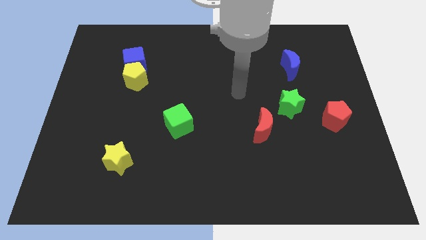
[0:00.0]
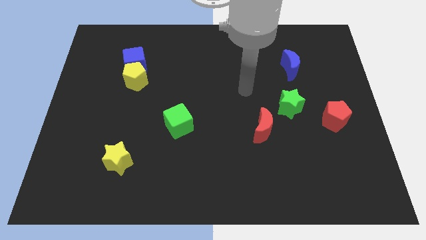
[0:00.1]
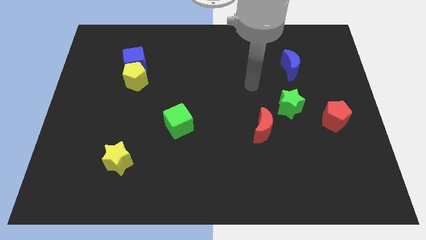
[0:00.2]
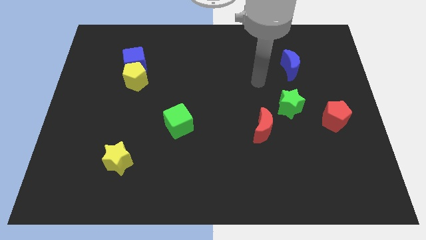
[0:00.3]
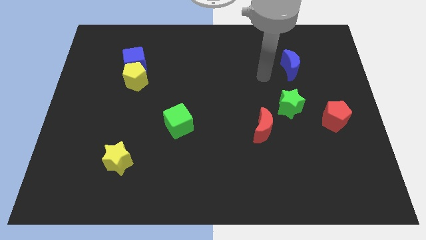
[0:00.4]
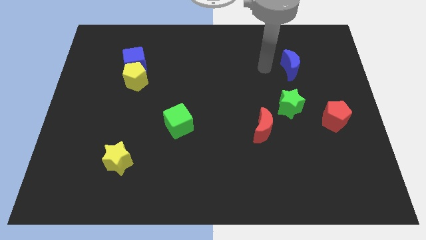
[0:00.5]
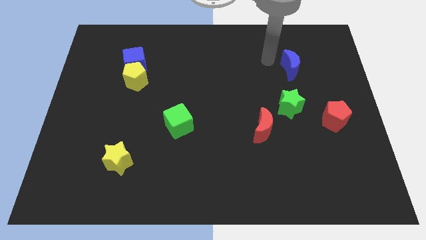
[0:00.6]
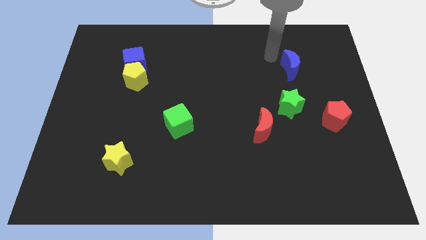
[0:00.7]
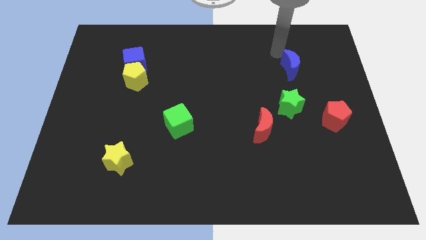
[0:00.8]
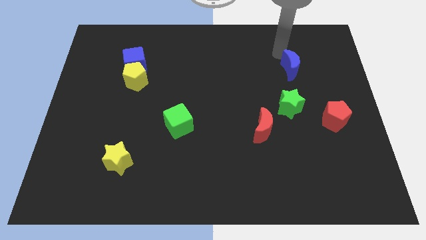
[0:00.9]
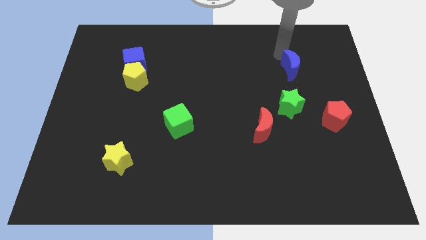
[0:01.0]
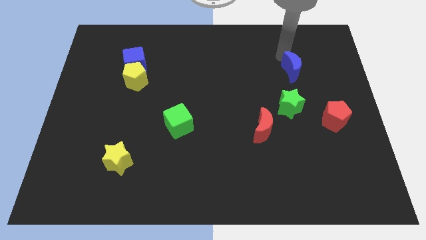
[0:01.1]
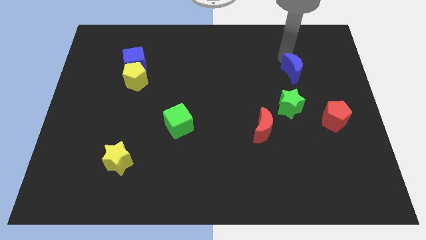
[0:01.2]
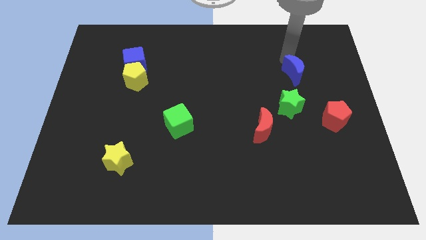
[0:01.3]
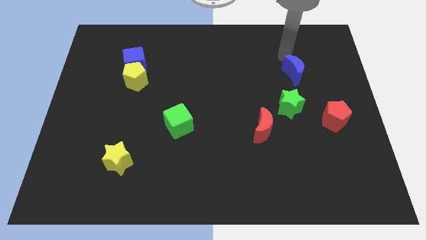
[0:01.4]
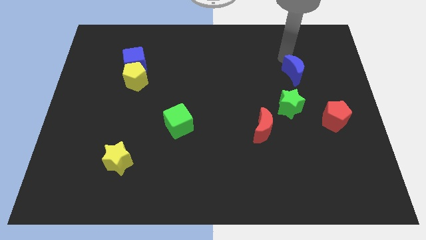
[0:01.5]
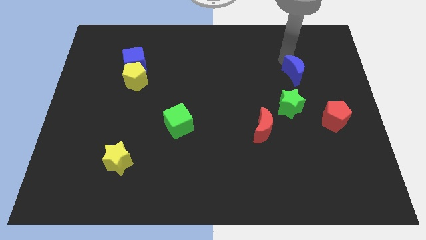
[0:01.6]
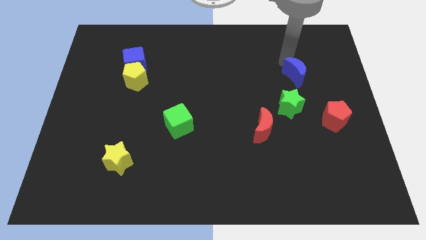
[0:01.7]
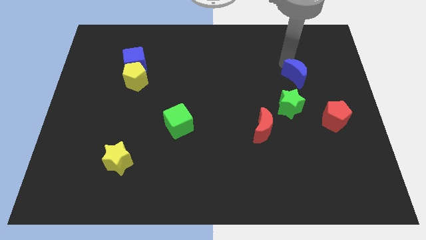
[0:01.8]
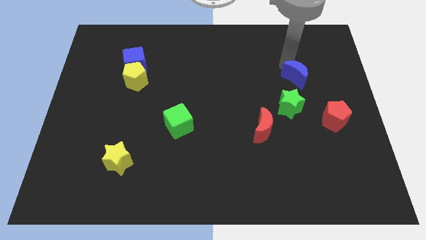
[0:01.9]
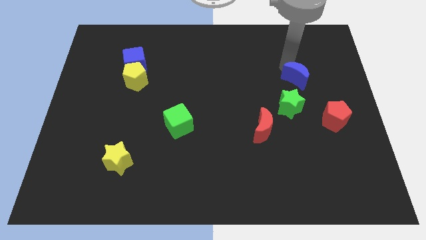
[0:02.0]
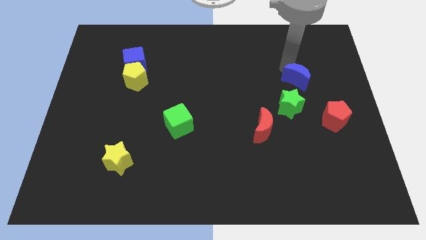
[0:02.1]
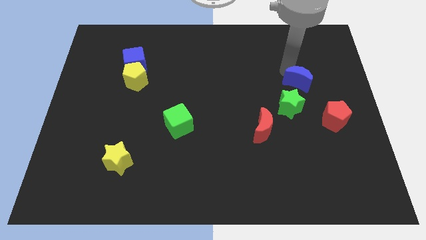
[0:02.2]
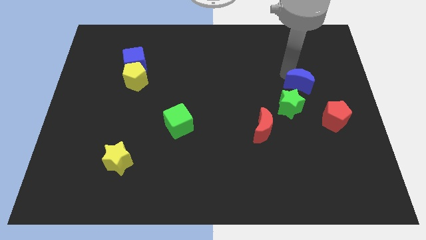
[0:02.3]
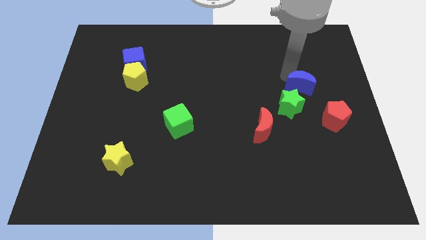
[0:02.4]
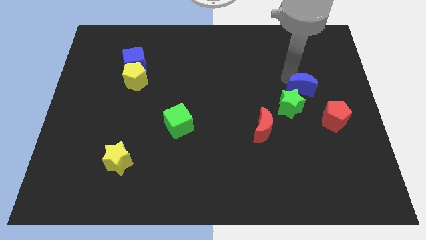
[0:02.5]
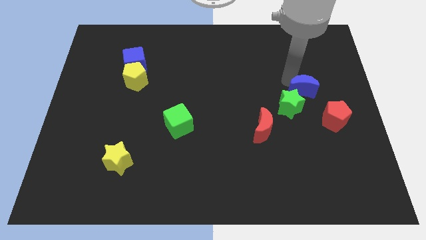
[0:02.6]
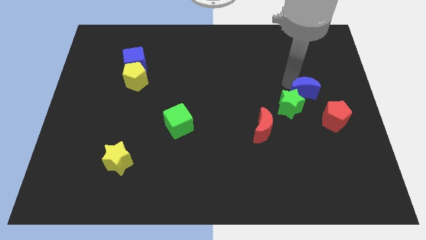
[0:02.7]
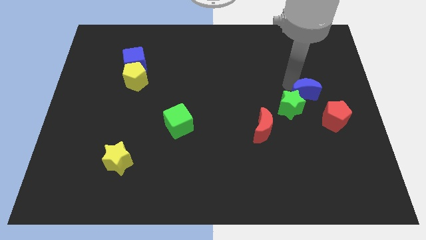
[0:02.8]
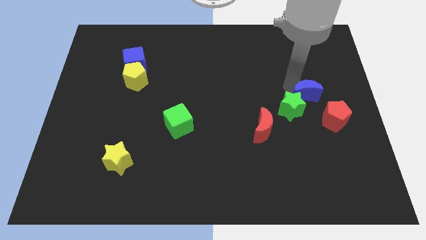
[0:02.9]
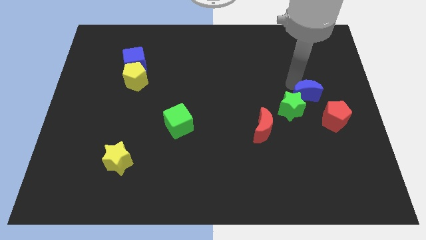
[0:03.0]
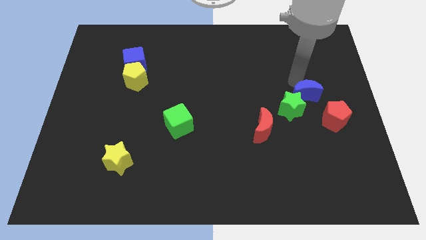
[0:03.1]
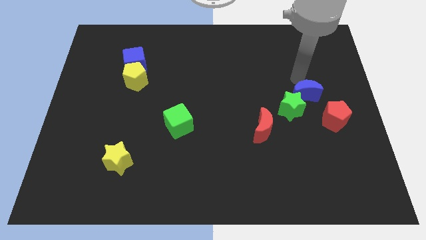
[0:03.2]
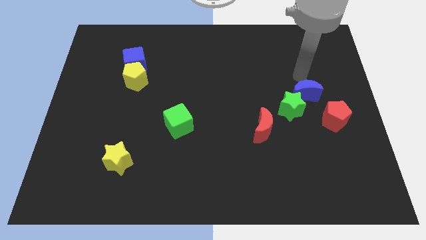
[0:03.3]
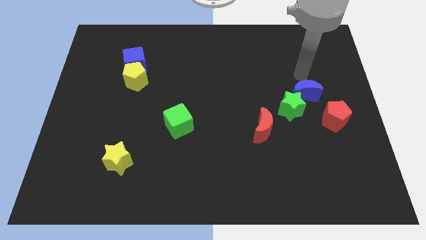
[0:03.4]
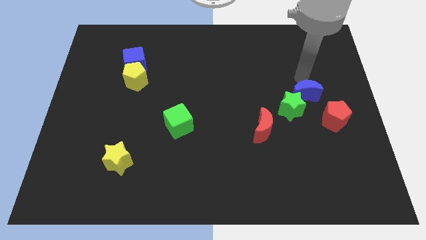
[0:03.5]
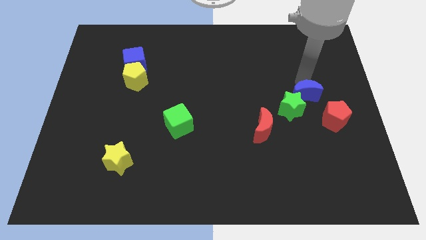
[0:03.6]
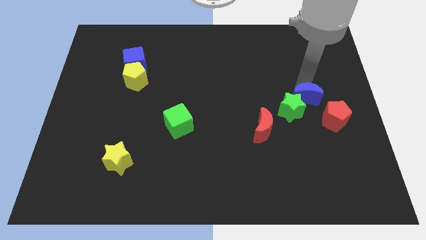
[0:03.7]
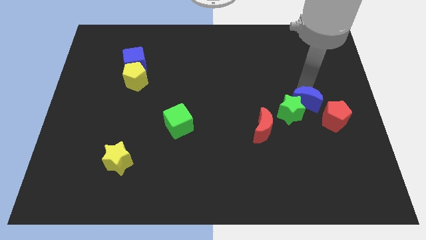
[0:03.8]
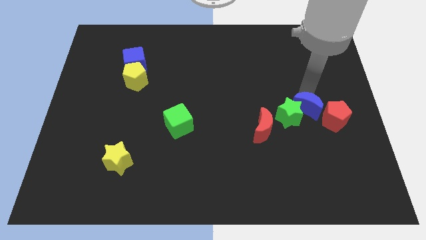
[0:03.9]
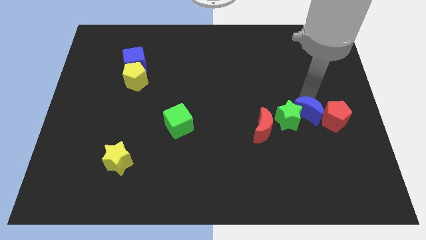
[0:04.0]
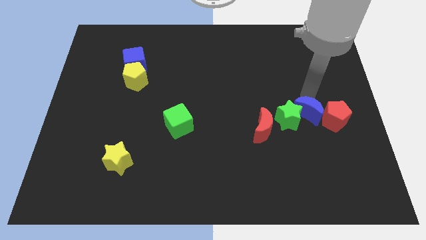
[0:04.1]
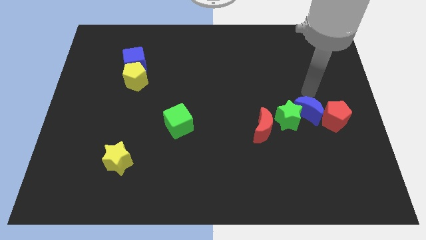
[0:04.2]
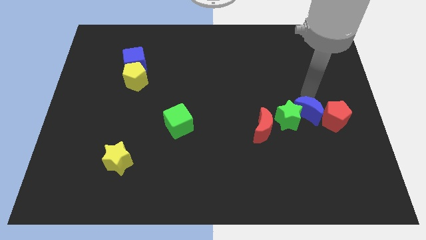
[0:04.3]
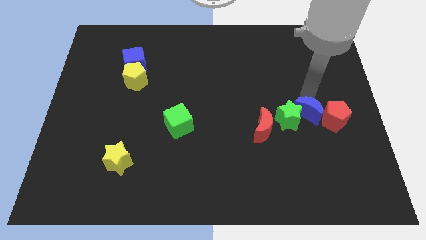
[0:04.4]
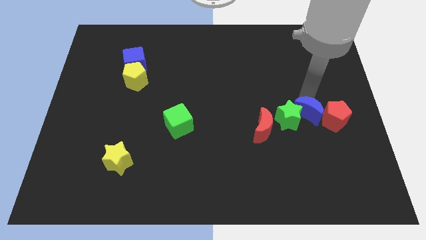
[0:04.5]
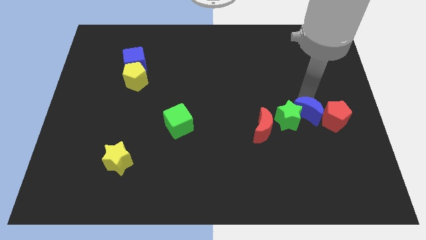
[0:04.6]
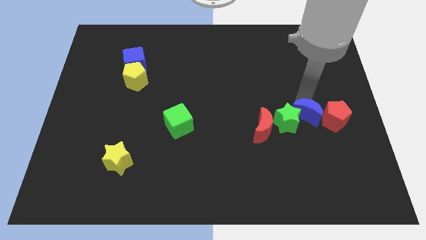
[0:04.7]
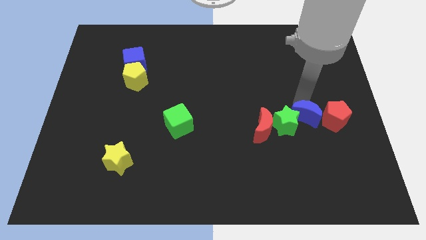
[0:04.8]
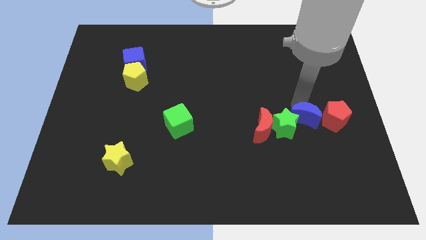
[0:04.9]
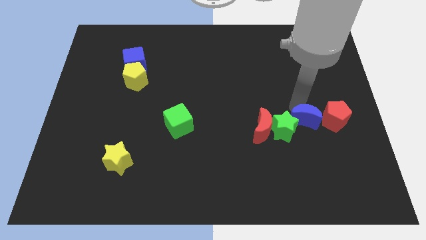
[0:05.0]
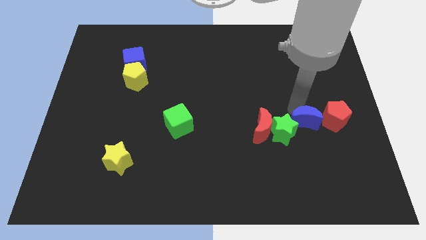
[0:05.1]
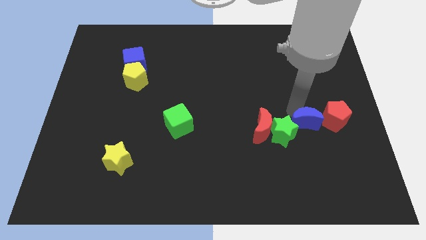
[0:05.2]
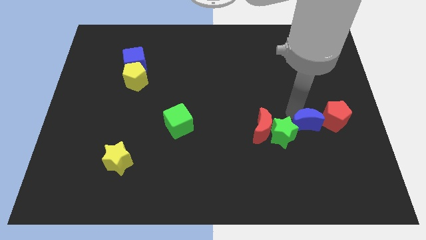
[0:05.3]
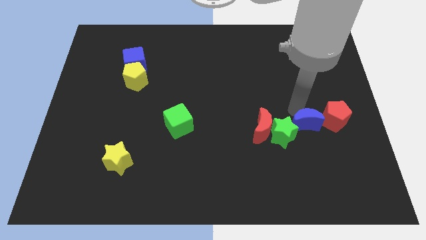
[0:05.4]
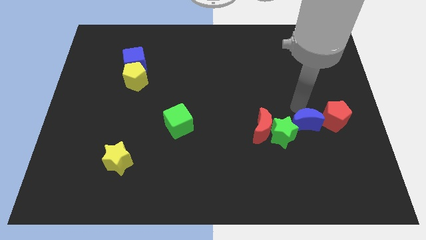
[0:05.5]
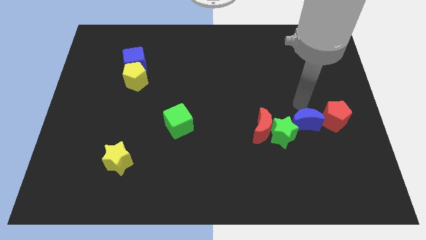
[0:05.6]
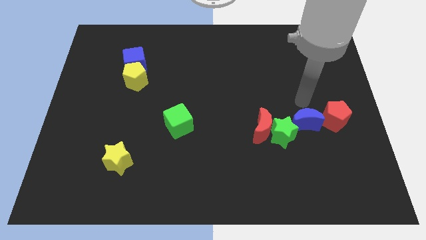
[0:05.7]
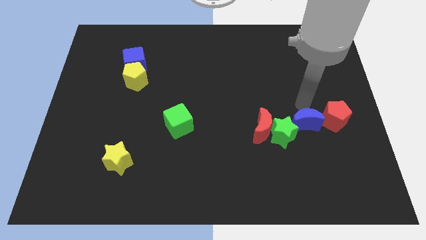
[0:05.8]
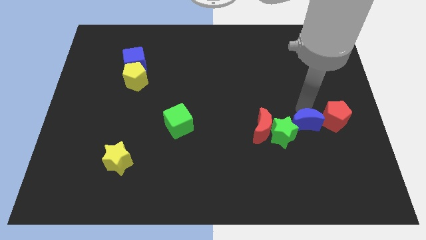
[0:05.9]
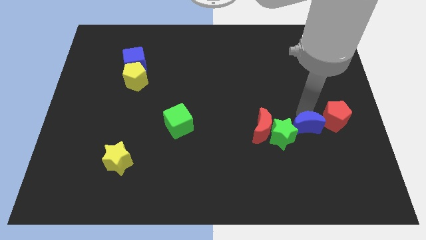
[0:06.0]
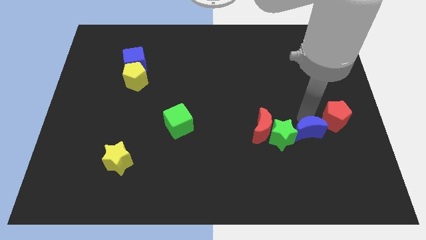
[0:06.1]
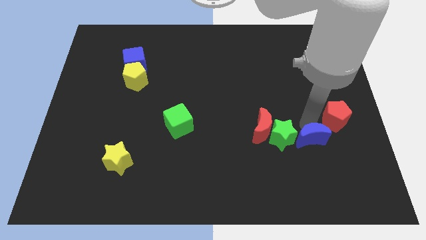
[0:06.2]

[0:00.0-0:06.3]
push the blue moon down

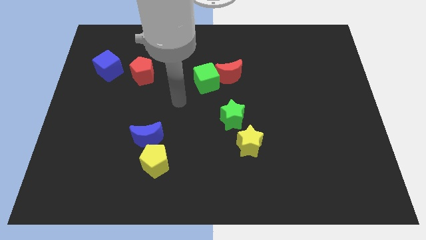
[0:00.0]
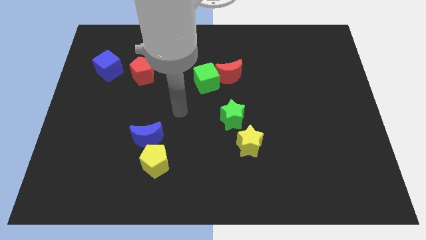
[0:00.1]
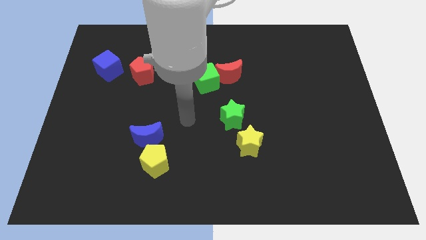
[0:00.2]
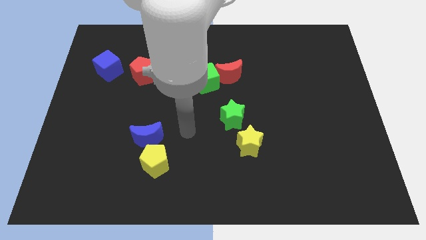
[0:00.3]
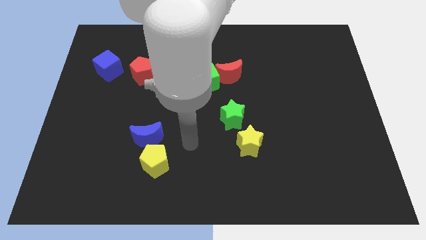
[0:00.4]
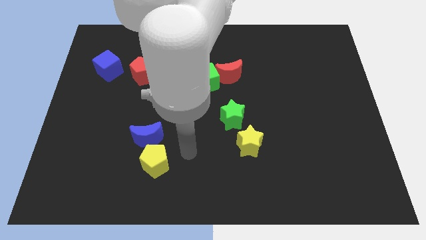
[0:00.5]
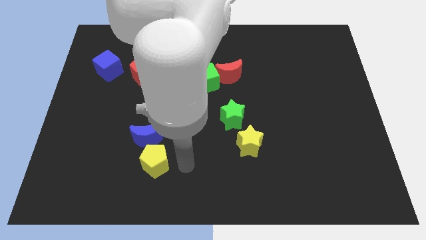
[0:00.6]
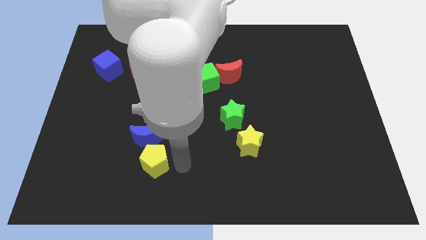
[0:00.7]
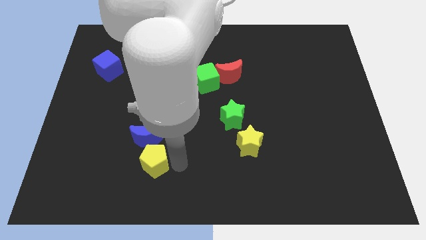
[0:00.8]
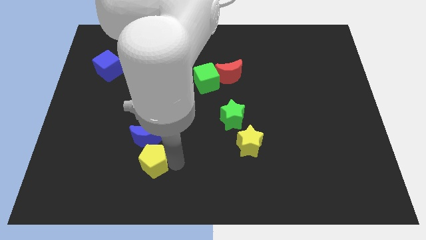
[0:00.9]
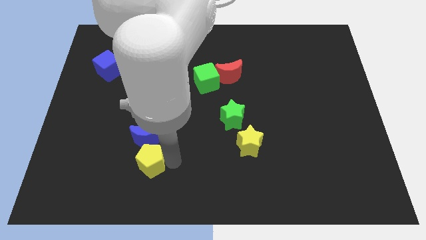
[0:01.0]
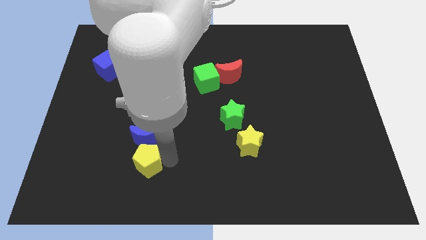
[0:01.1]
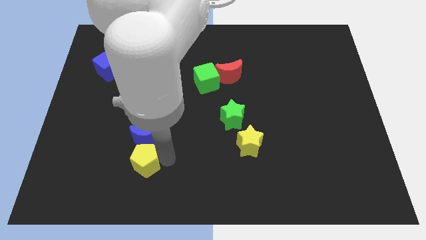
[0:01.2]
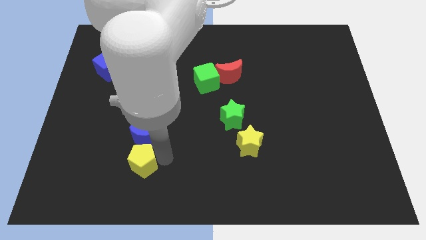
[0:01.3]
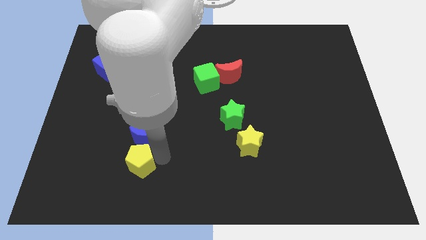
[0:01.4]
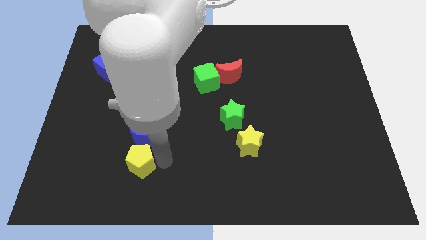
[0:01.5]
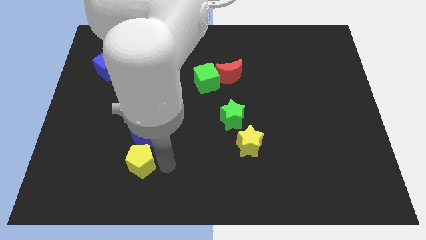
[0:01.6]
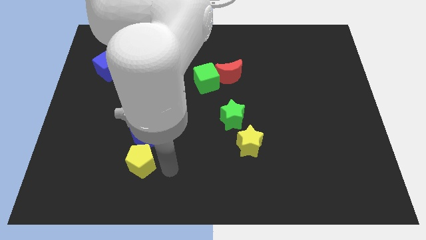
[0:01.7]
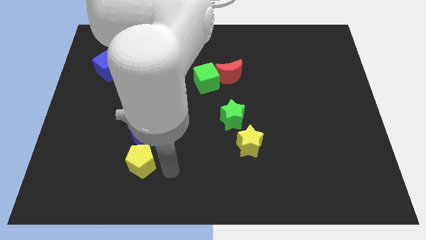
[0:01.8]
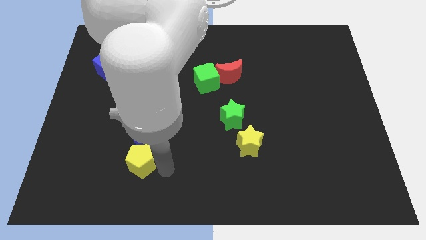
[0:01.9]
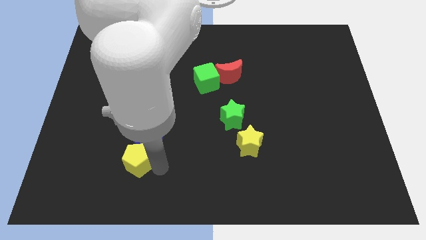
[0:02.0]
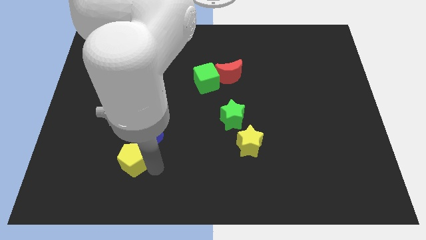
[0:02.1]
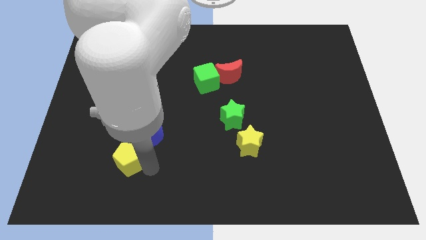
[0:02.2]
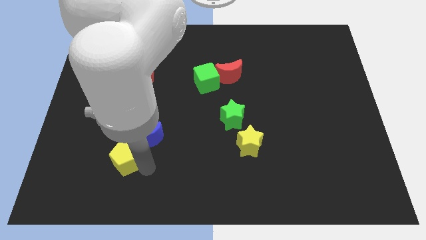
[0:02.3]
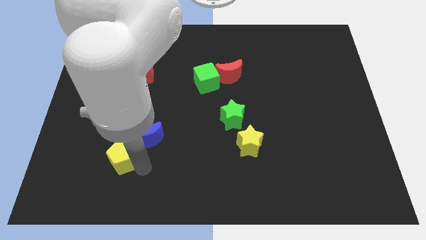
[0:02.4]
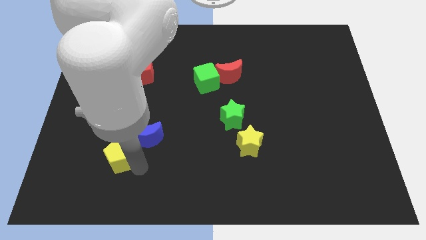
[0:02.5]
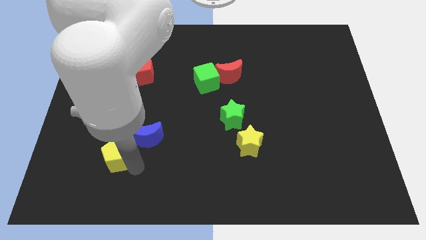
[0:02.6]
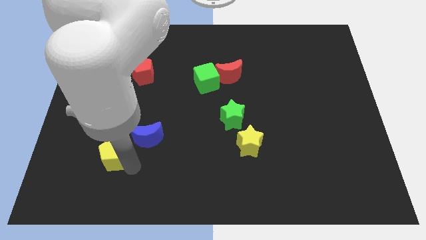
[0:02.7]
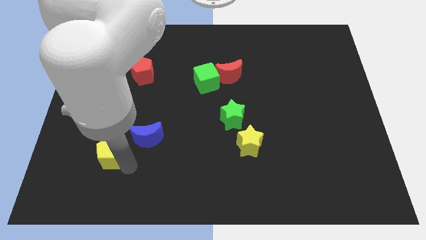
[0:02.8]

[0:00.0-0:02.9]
slightly move the yellow pentagon up and then left
